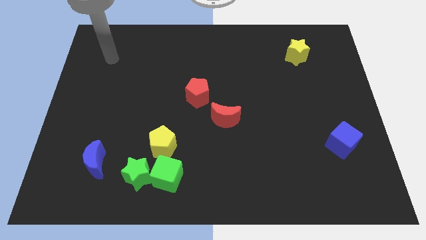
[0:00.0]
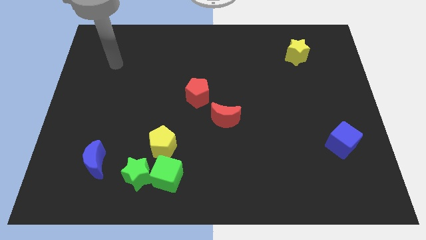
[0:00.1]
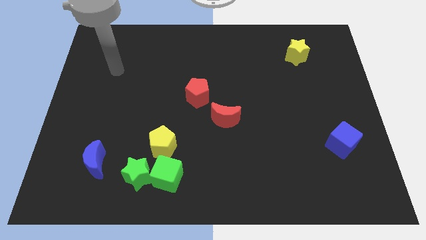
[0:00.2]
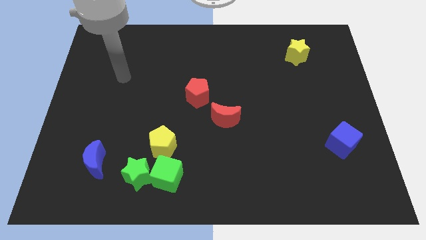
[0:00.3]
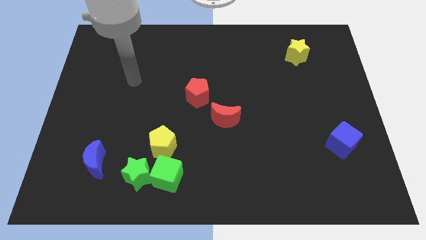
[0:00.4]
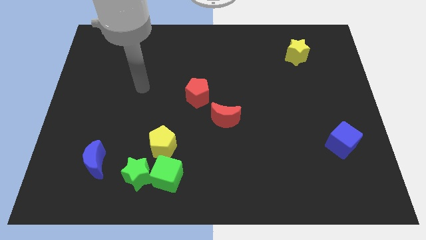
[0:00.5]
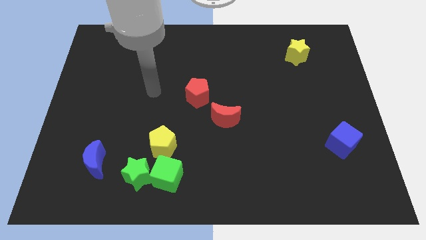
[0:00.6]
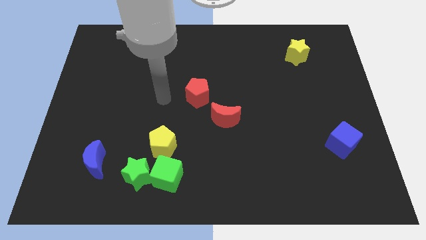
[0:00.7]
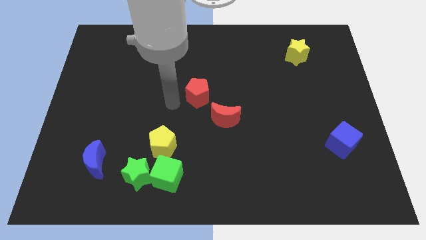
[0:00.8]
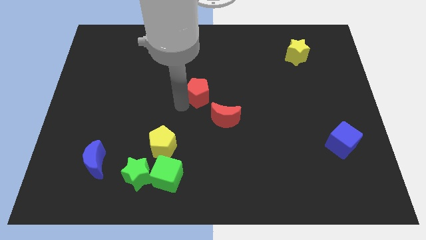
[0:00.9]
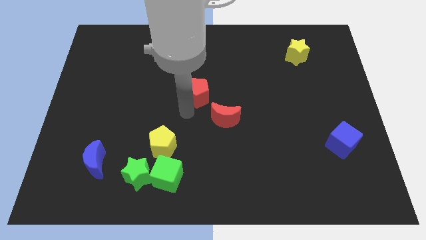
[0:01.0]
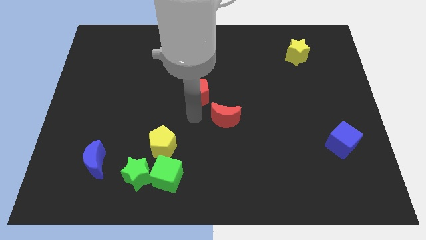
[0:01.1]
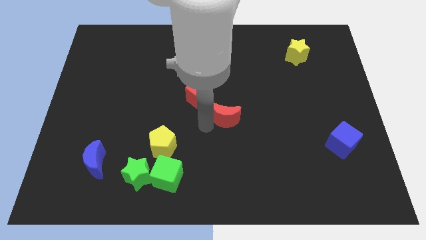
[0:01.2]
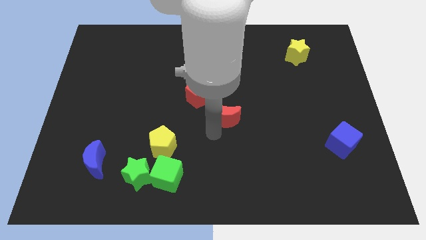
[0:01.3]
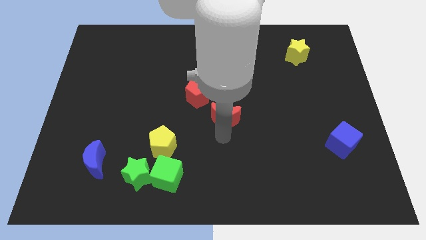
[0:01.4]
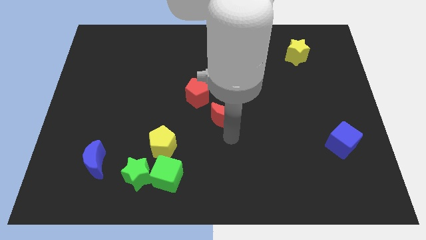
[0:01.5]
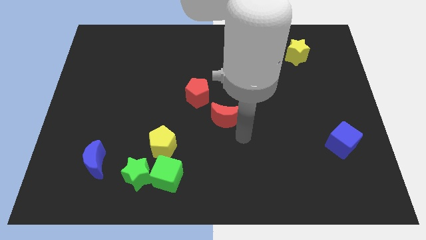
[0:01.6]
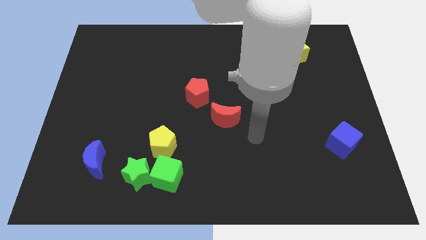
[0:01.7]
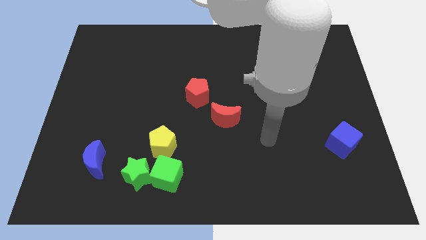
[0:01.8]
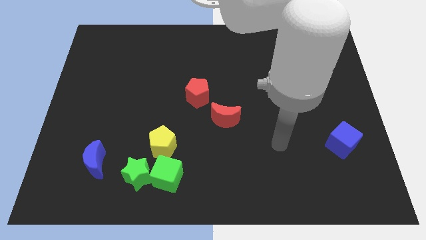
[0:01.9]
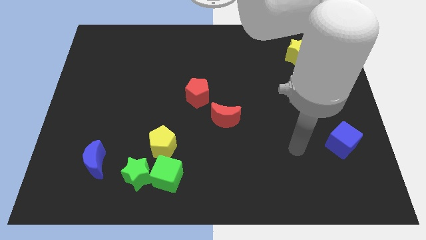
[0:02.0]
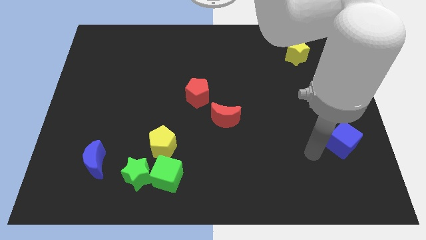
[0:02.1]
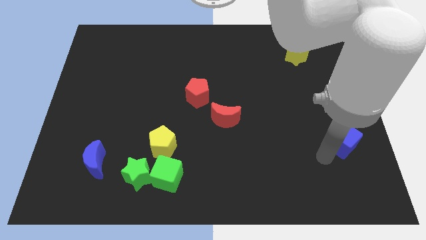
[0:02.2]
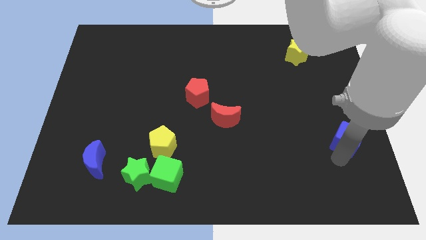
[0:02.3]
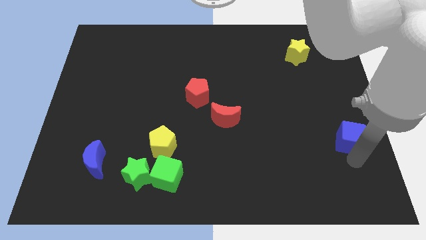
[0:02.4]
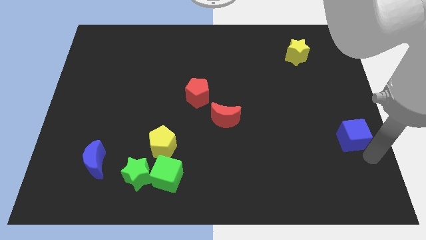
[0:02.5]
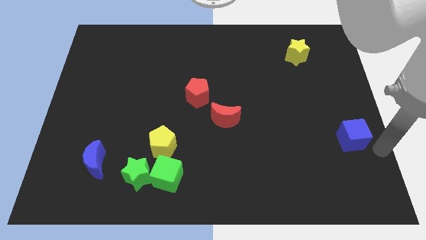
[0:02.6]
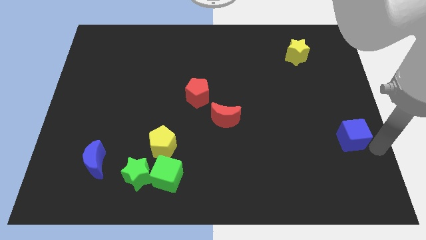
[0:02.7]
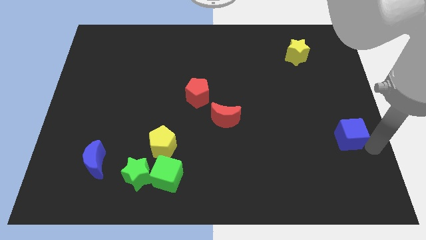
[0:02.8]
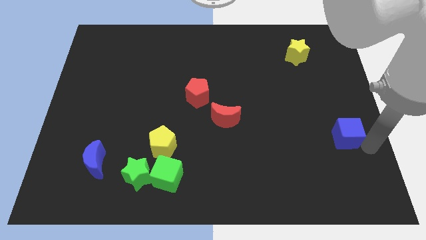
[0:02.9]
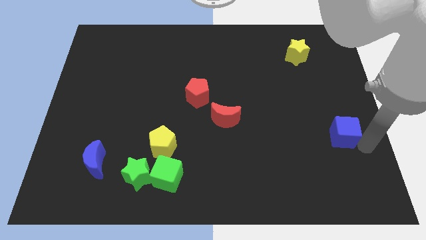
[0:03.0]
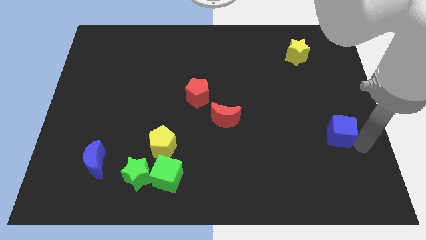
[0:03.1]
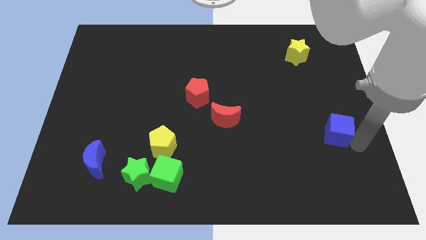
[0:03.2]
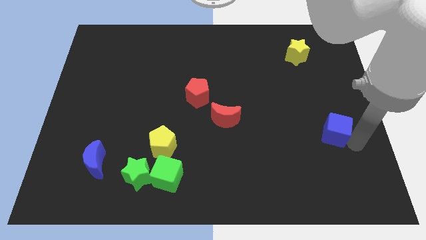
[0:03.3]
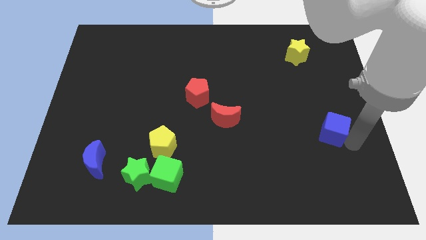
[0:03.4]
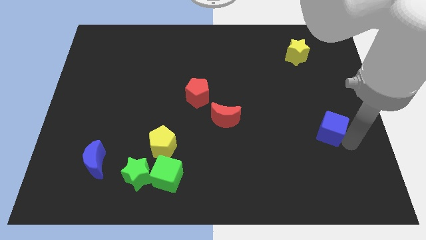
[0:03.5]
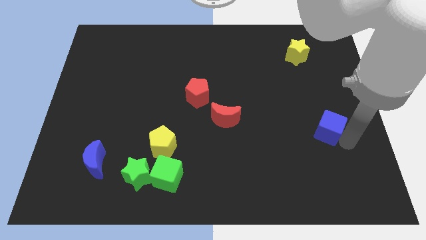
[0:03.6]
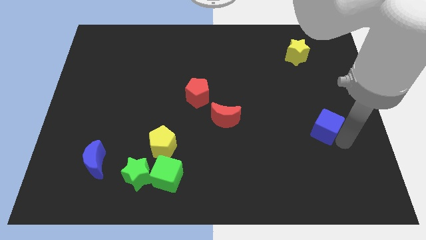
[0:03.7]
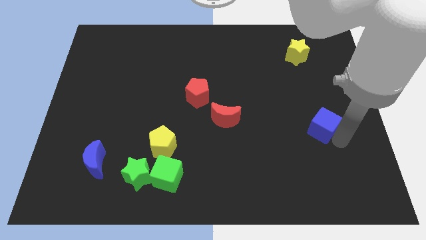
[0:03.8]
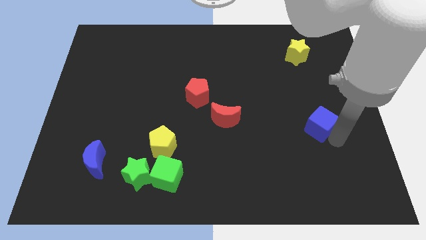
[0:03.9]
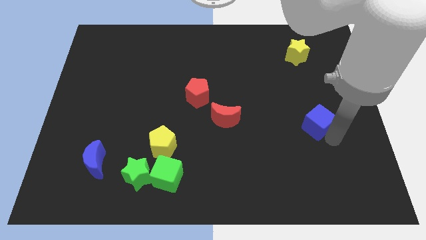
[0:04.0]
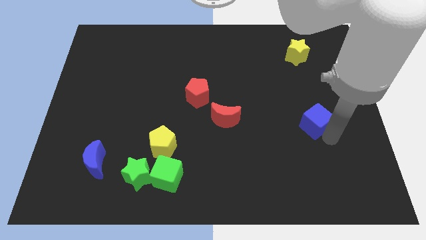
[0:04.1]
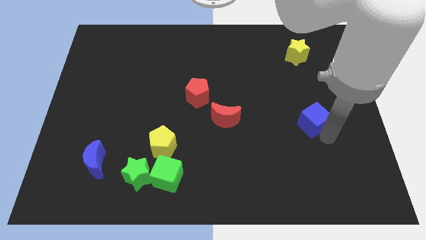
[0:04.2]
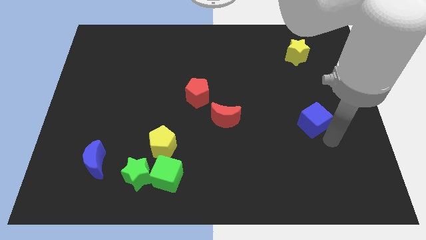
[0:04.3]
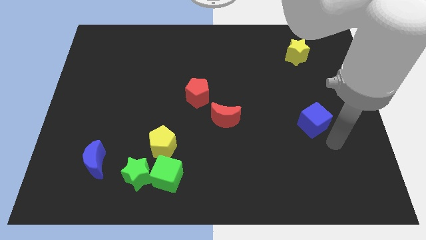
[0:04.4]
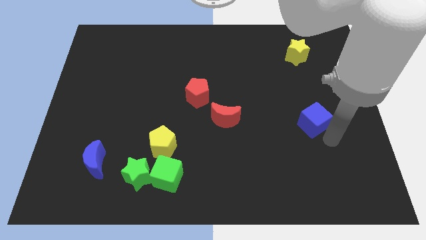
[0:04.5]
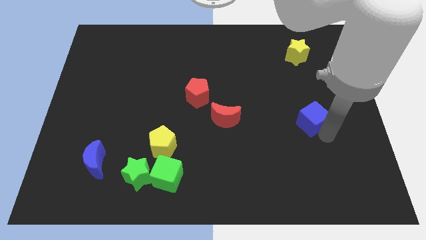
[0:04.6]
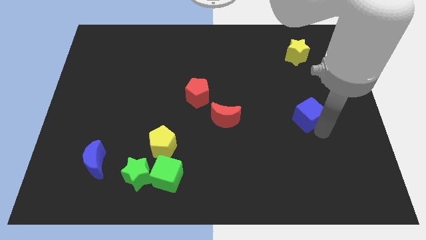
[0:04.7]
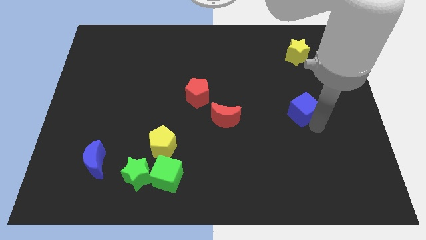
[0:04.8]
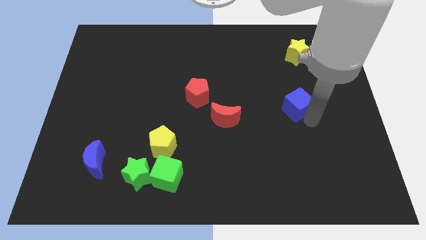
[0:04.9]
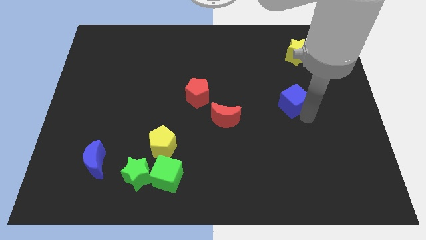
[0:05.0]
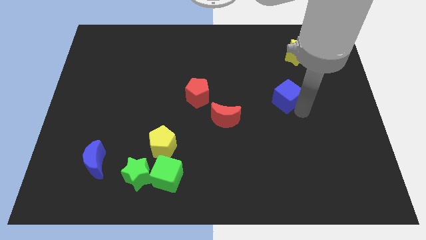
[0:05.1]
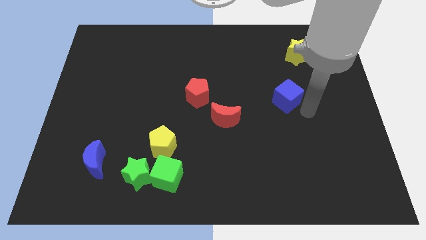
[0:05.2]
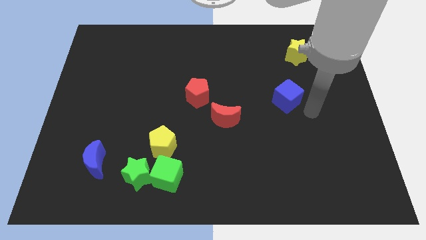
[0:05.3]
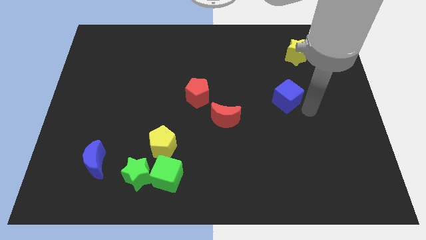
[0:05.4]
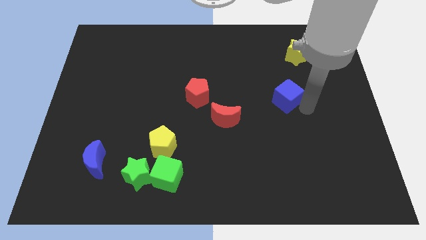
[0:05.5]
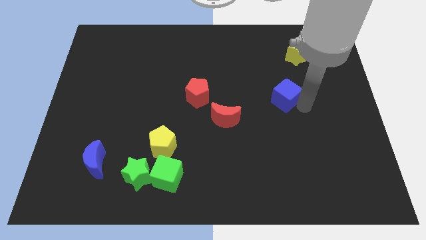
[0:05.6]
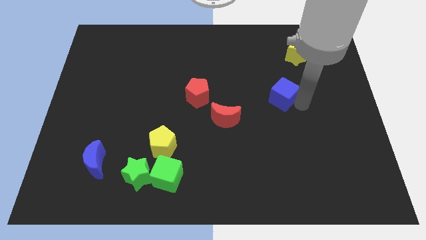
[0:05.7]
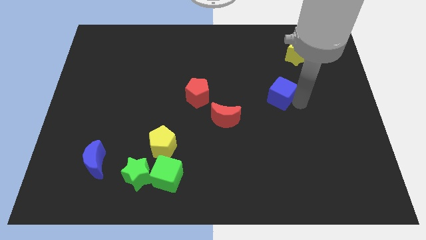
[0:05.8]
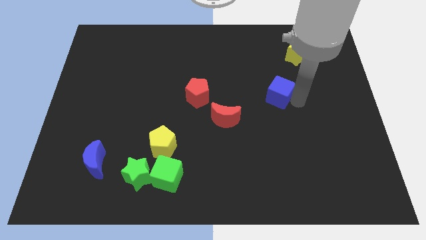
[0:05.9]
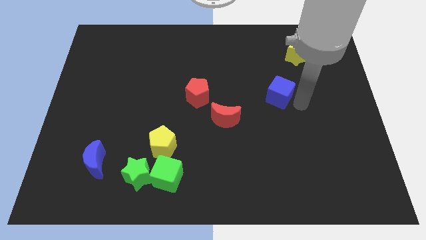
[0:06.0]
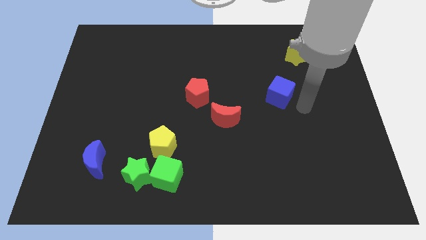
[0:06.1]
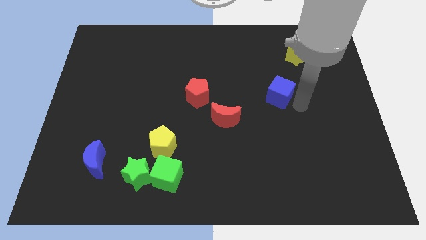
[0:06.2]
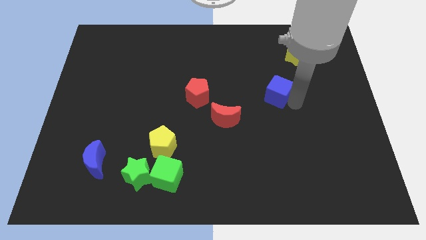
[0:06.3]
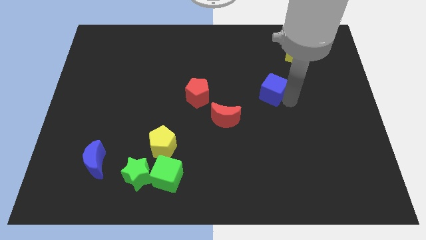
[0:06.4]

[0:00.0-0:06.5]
slide the blue cube upwards and to the left diagonally

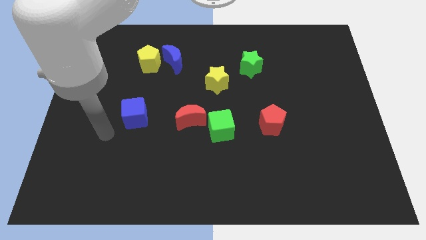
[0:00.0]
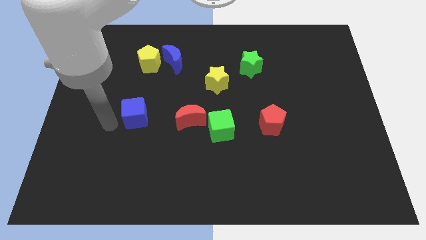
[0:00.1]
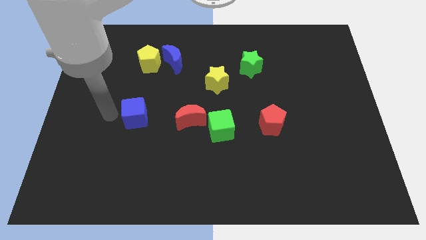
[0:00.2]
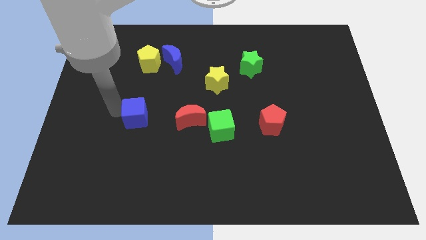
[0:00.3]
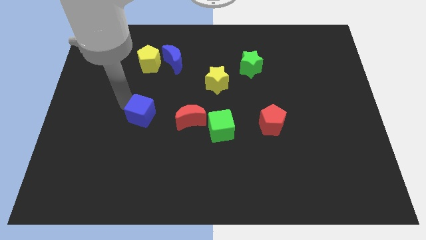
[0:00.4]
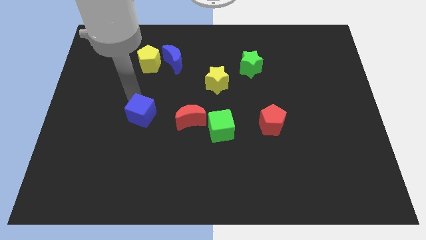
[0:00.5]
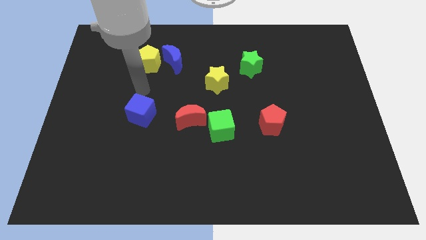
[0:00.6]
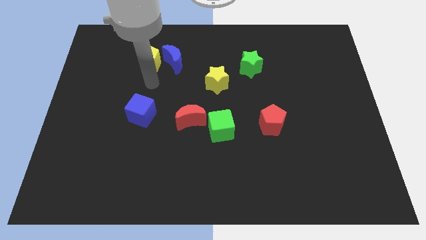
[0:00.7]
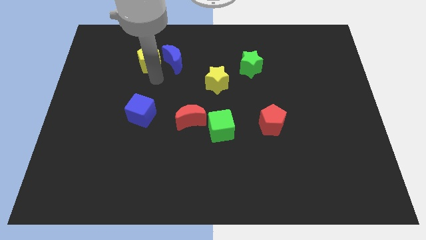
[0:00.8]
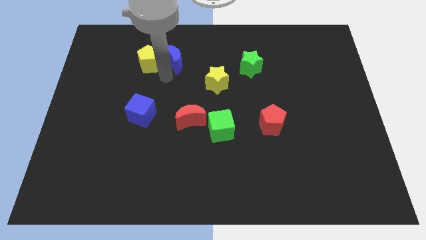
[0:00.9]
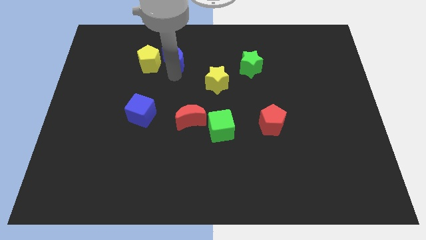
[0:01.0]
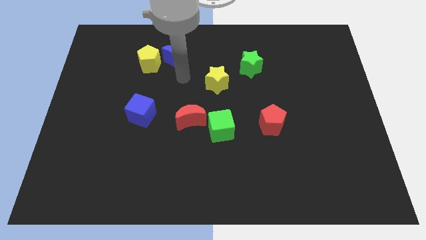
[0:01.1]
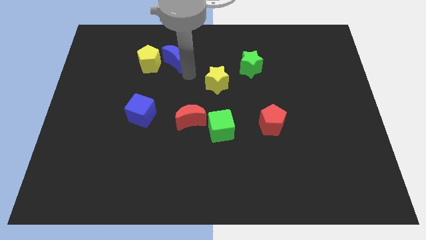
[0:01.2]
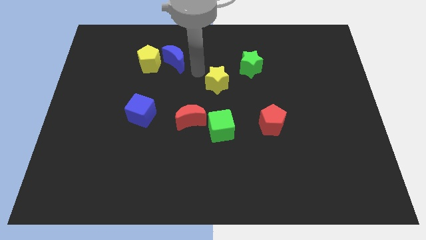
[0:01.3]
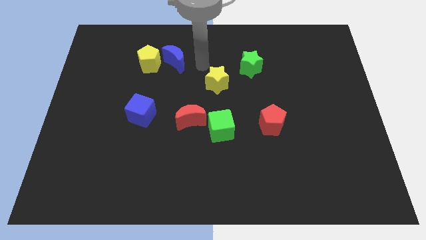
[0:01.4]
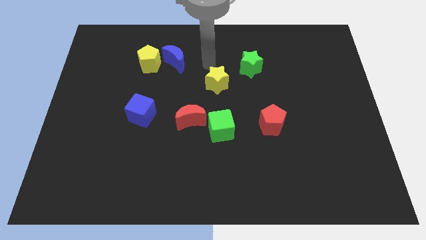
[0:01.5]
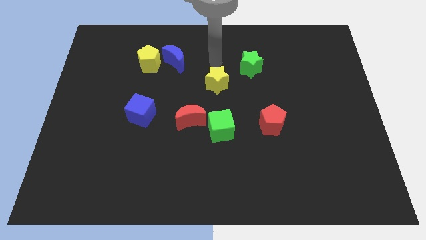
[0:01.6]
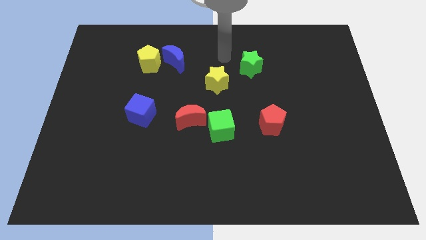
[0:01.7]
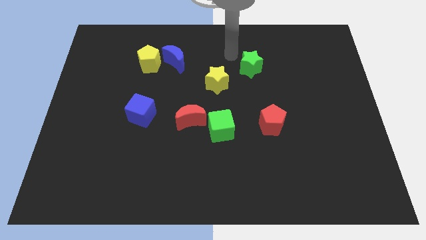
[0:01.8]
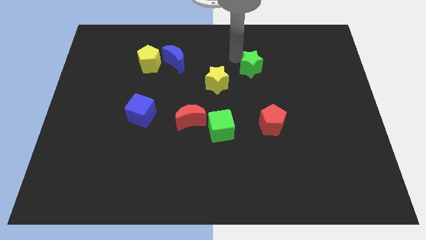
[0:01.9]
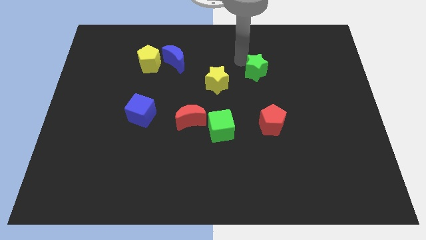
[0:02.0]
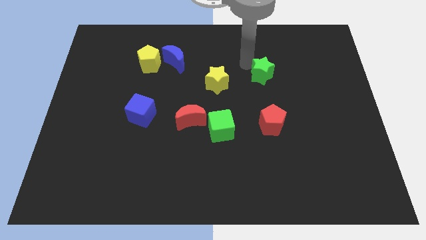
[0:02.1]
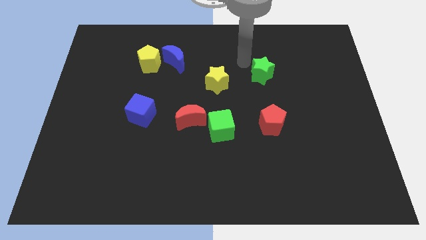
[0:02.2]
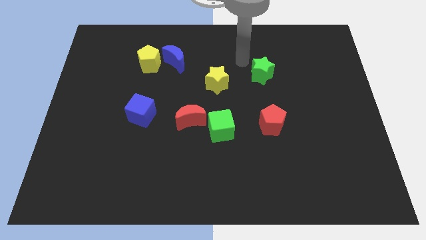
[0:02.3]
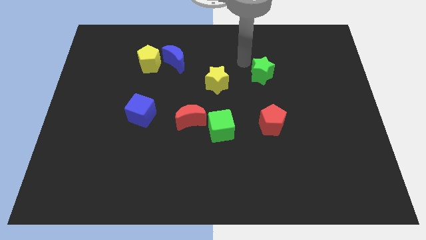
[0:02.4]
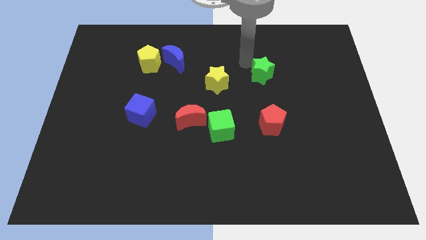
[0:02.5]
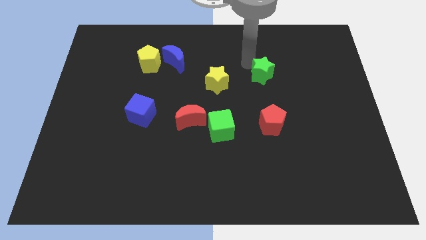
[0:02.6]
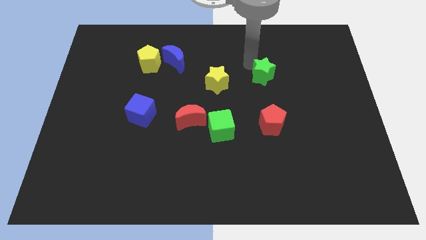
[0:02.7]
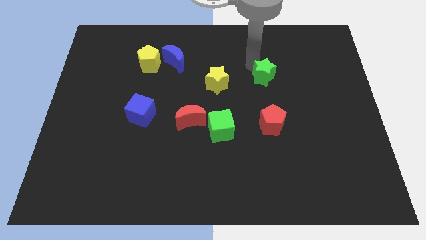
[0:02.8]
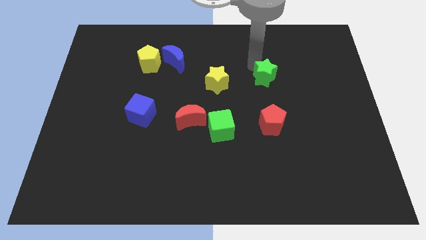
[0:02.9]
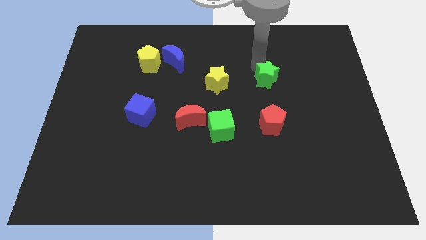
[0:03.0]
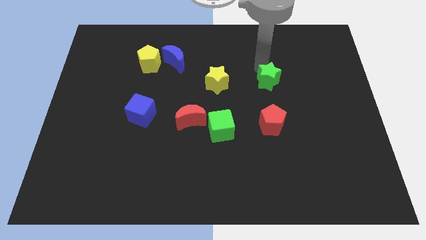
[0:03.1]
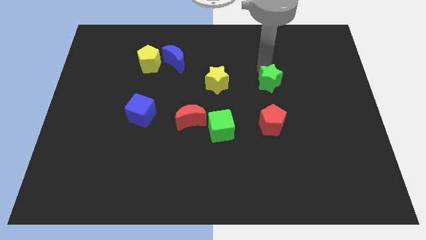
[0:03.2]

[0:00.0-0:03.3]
push the green star downwards and then to the right a bit
